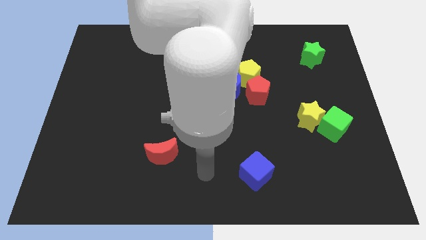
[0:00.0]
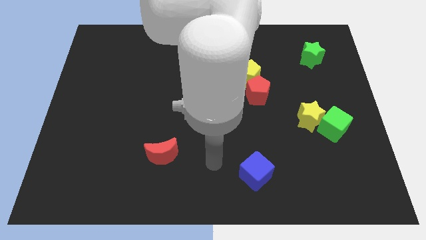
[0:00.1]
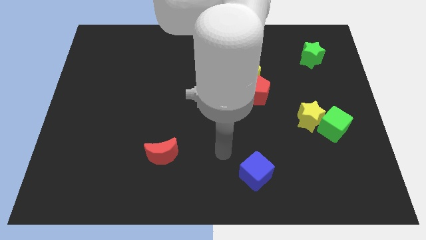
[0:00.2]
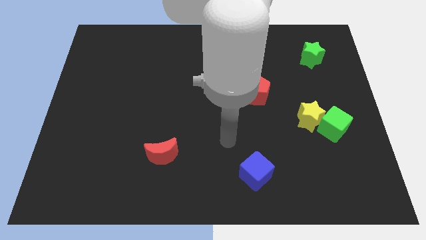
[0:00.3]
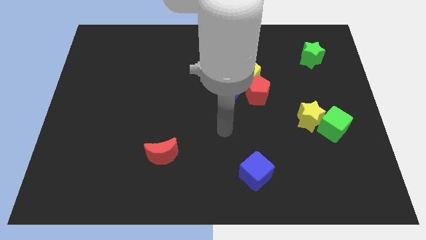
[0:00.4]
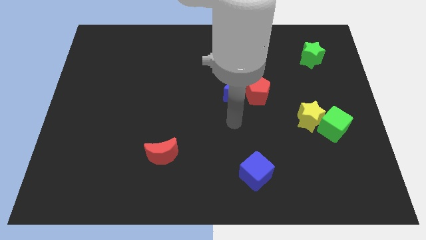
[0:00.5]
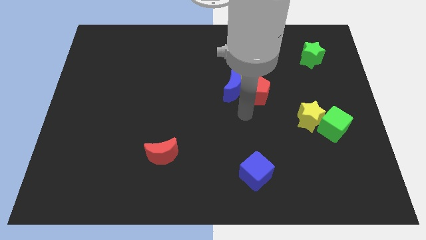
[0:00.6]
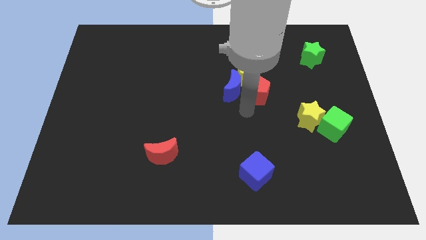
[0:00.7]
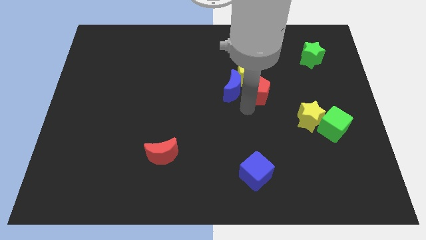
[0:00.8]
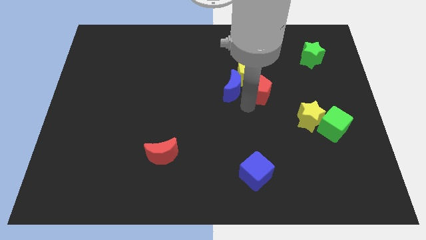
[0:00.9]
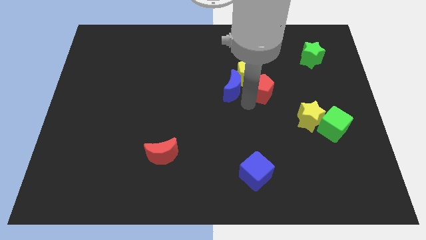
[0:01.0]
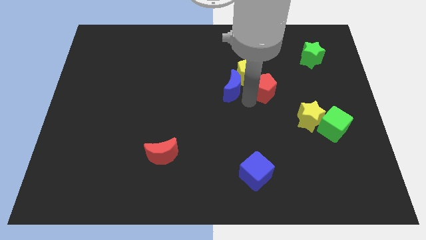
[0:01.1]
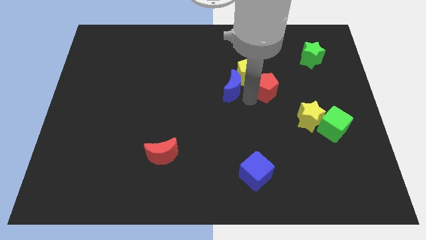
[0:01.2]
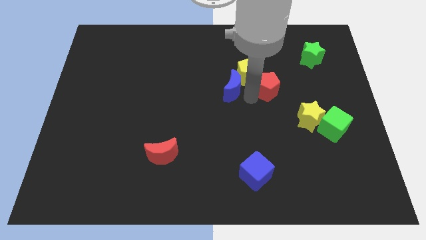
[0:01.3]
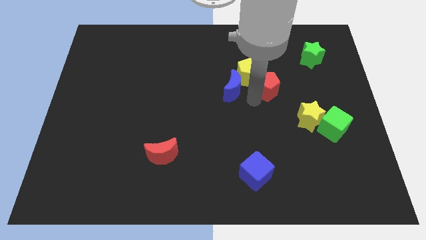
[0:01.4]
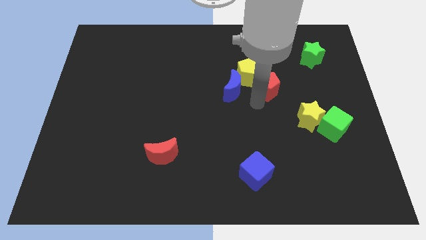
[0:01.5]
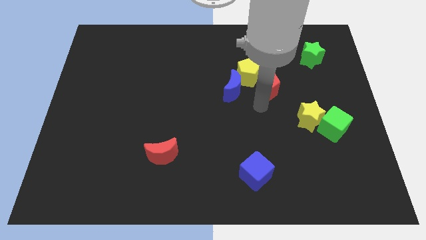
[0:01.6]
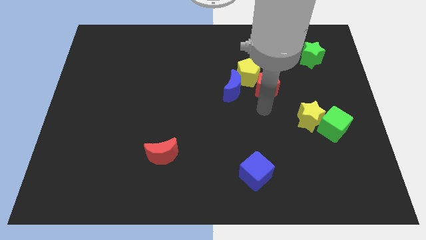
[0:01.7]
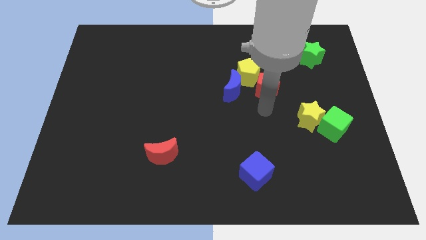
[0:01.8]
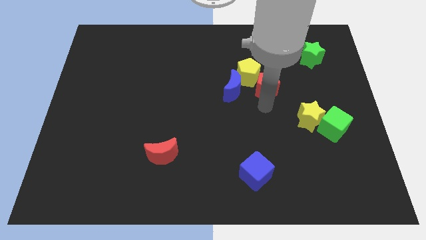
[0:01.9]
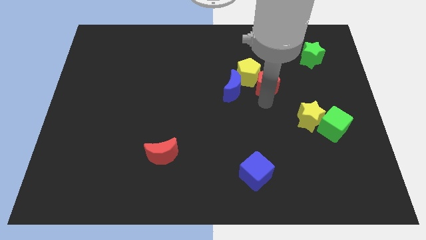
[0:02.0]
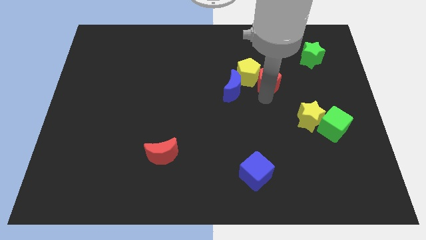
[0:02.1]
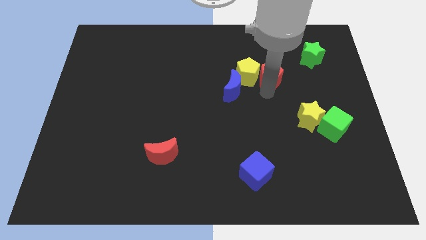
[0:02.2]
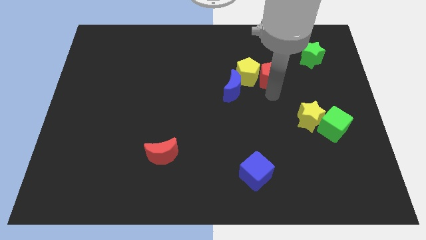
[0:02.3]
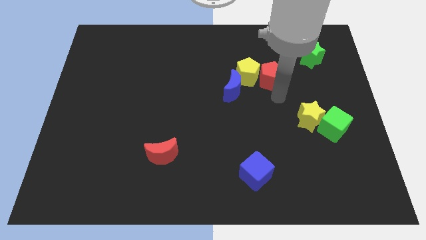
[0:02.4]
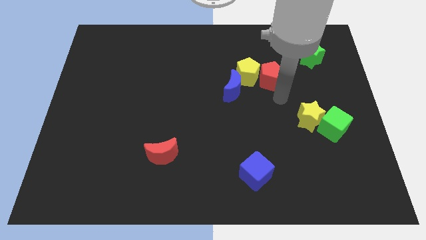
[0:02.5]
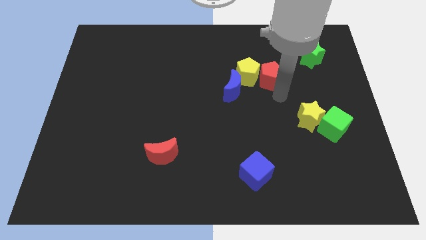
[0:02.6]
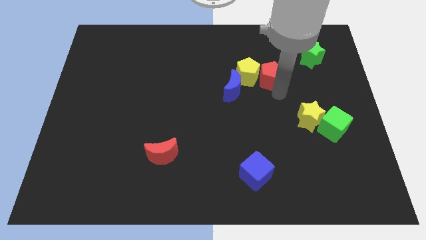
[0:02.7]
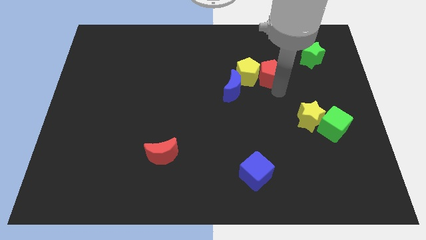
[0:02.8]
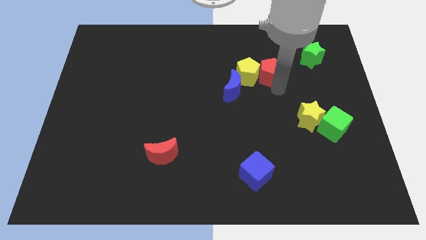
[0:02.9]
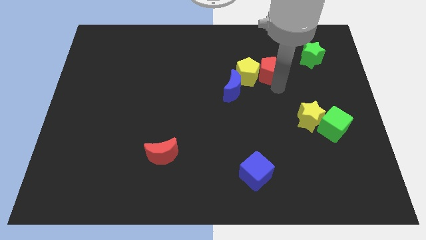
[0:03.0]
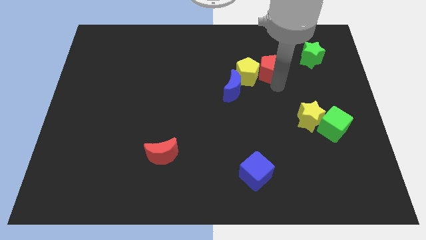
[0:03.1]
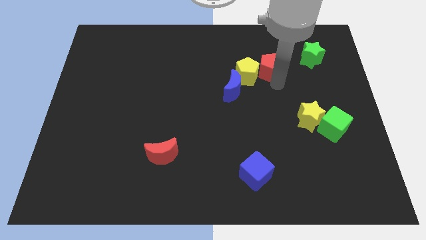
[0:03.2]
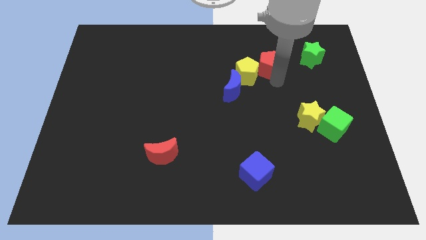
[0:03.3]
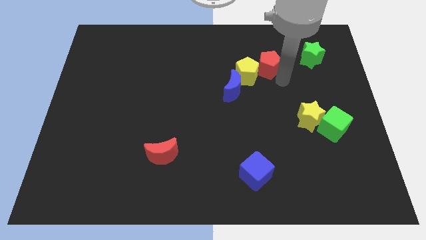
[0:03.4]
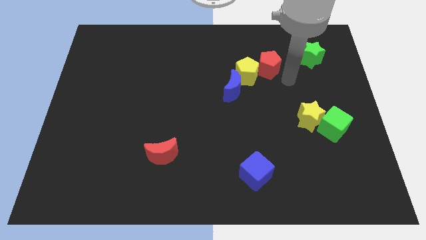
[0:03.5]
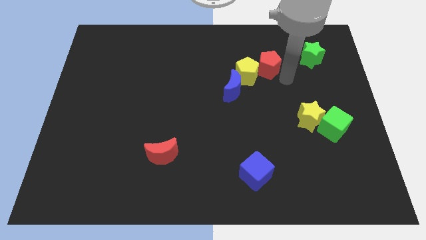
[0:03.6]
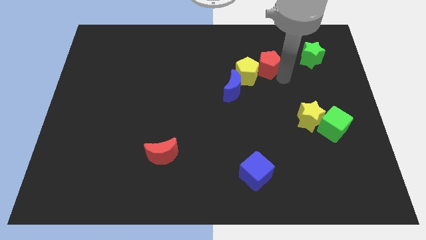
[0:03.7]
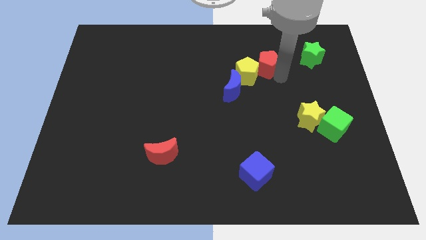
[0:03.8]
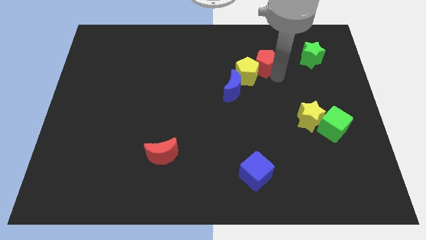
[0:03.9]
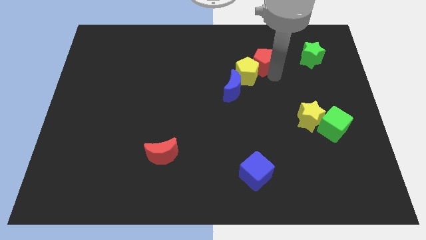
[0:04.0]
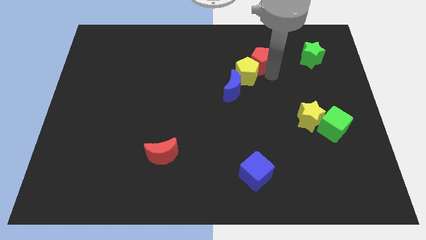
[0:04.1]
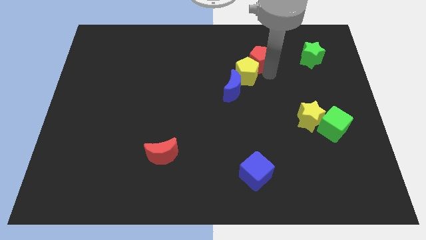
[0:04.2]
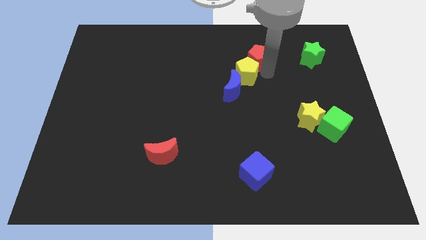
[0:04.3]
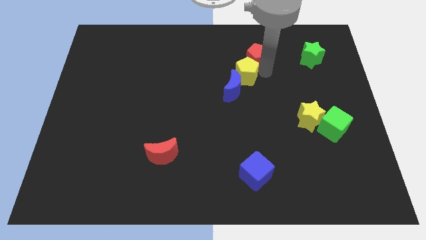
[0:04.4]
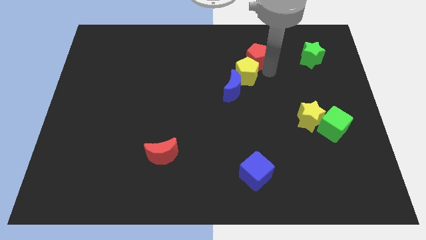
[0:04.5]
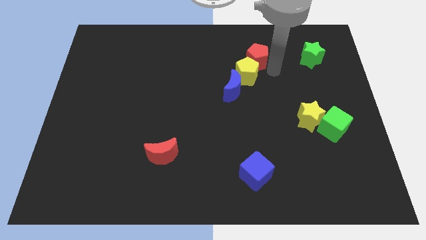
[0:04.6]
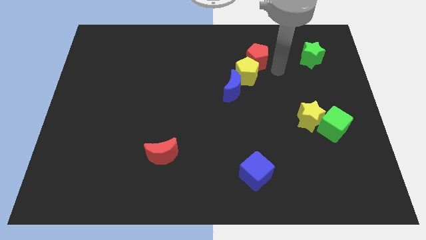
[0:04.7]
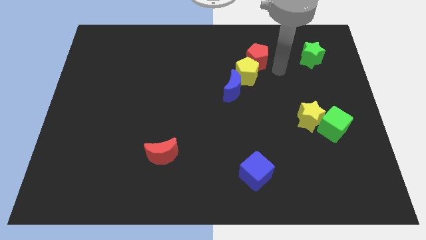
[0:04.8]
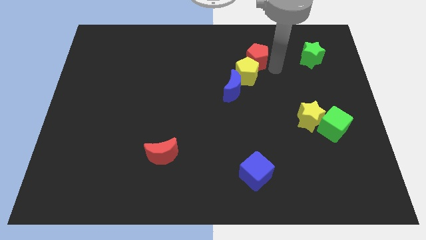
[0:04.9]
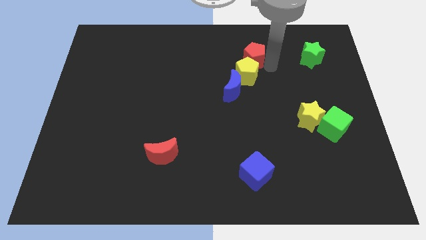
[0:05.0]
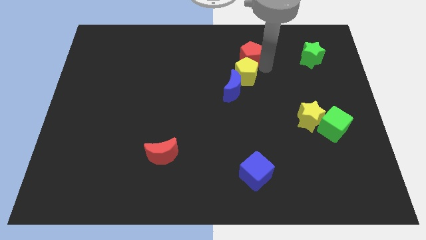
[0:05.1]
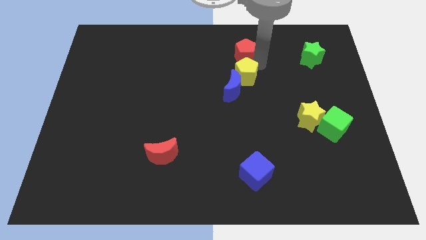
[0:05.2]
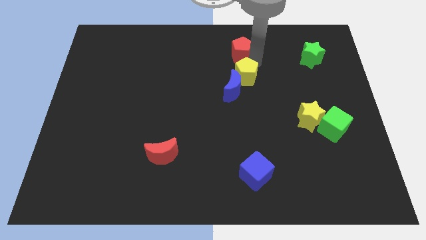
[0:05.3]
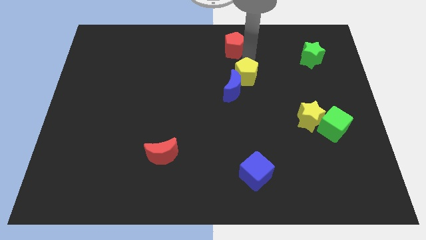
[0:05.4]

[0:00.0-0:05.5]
move the red pentagon to the top
